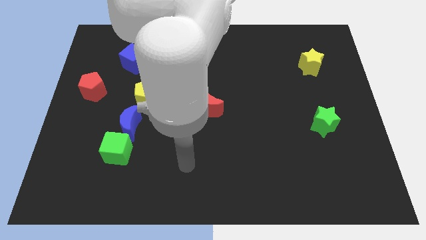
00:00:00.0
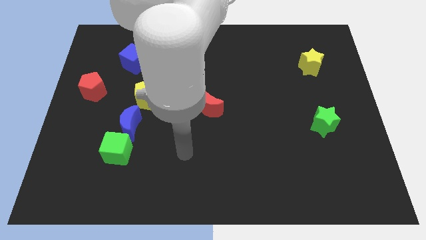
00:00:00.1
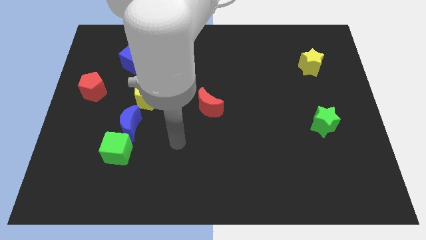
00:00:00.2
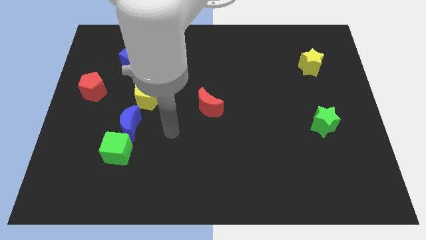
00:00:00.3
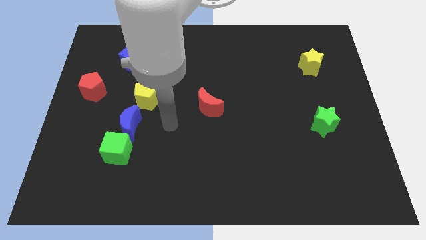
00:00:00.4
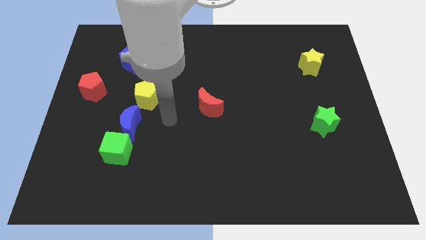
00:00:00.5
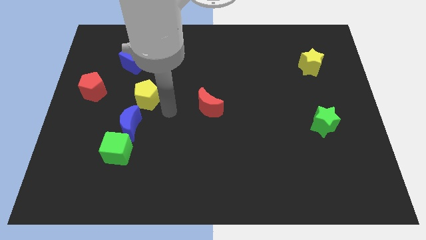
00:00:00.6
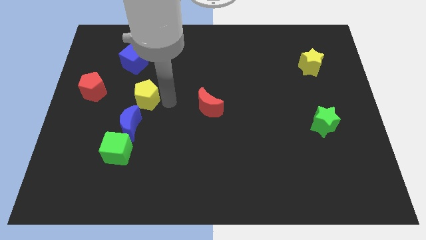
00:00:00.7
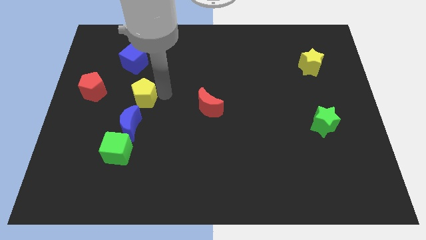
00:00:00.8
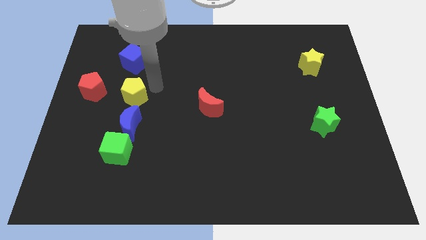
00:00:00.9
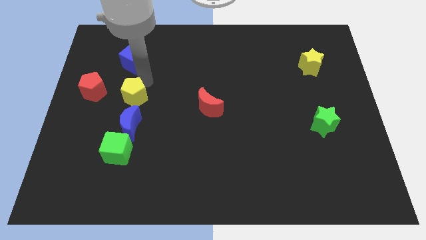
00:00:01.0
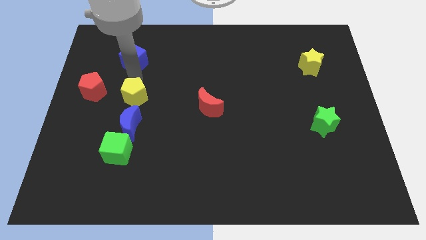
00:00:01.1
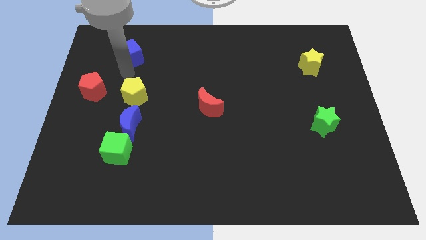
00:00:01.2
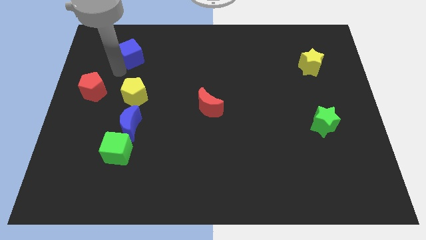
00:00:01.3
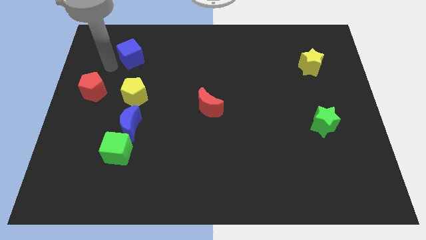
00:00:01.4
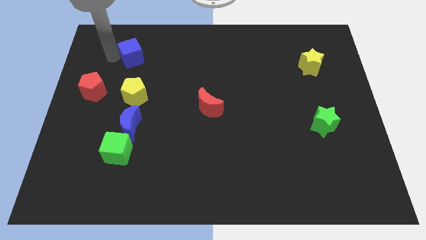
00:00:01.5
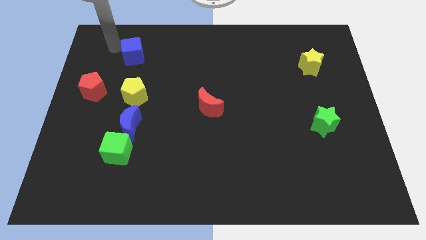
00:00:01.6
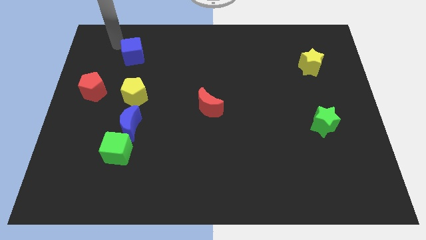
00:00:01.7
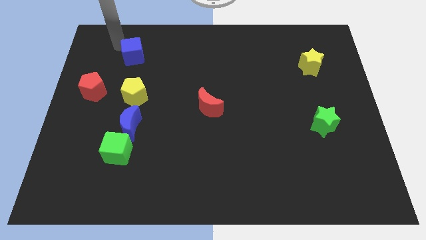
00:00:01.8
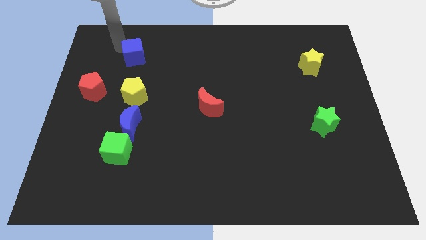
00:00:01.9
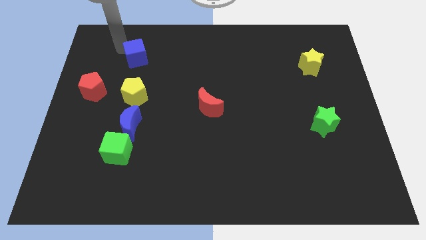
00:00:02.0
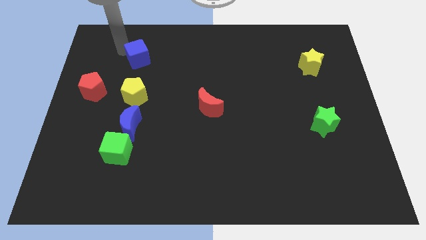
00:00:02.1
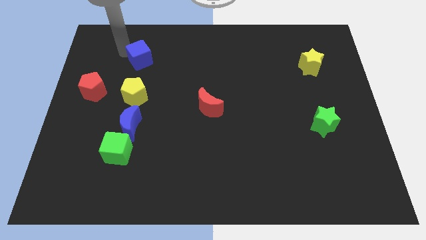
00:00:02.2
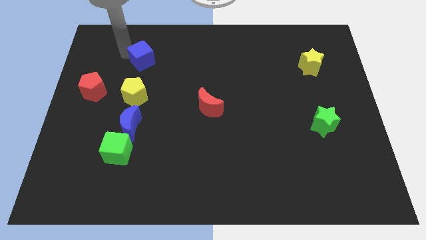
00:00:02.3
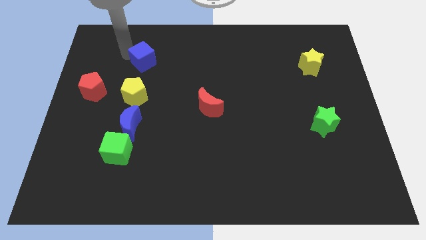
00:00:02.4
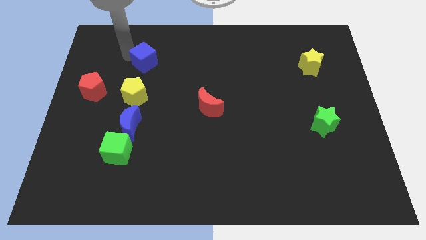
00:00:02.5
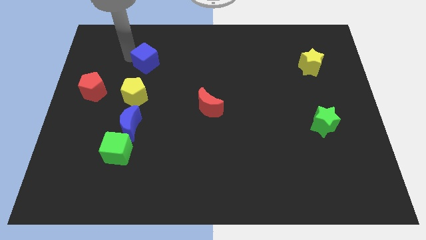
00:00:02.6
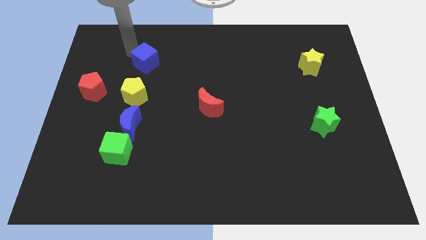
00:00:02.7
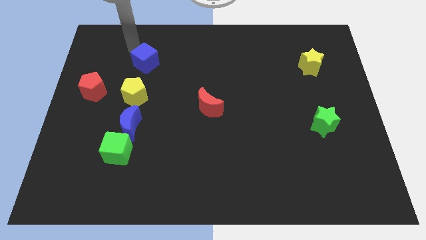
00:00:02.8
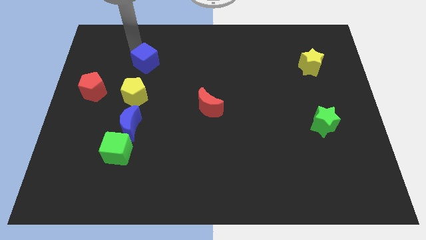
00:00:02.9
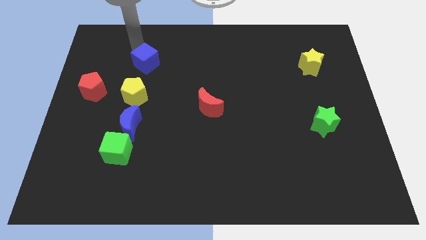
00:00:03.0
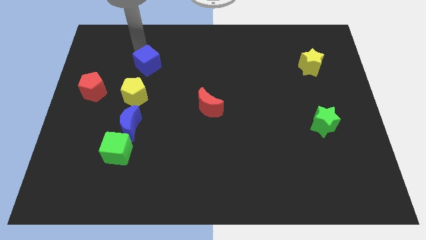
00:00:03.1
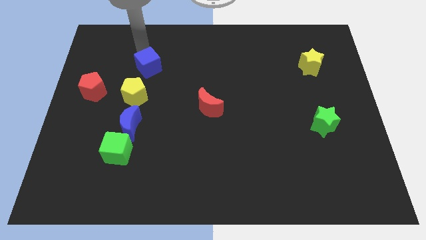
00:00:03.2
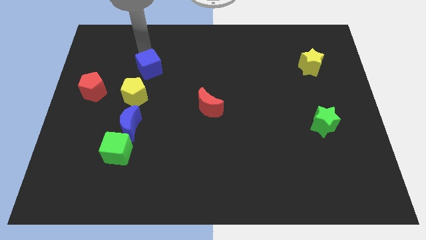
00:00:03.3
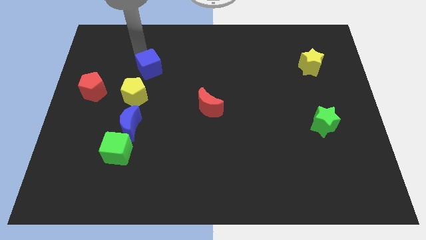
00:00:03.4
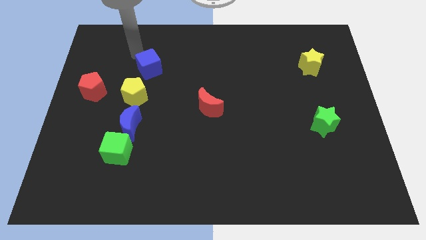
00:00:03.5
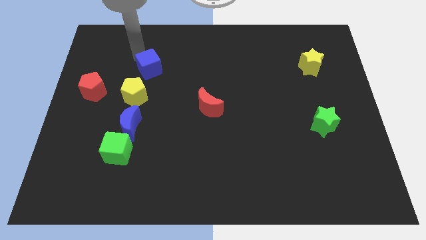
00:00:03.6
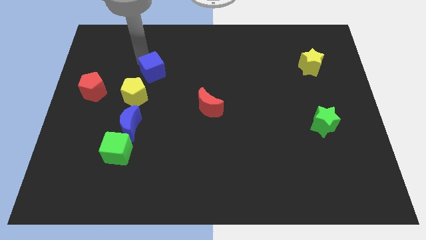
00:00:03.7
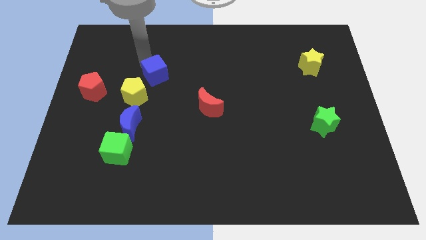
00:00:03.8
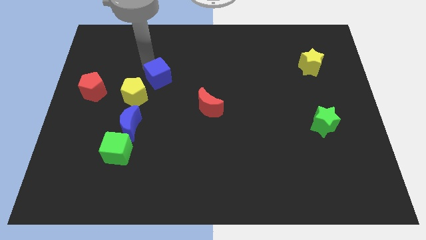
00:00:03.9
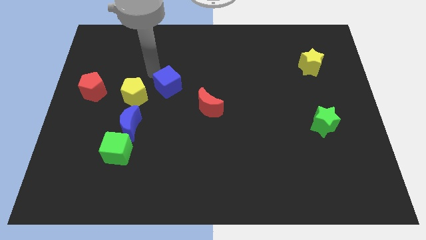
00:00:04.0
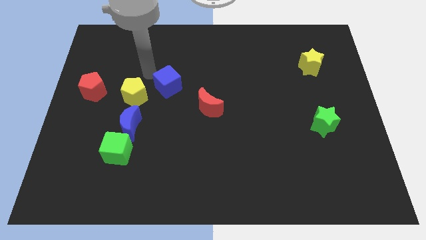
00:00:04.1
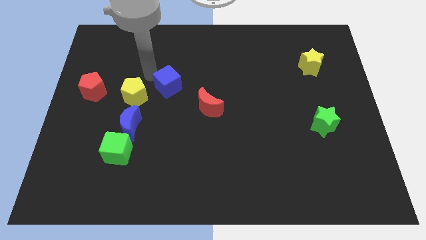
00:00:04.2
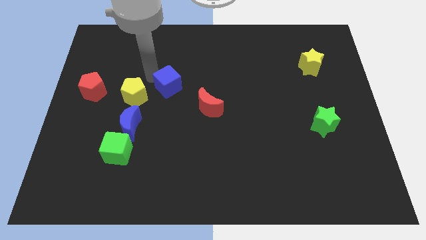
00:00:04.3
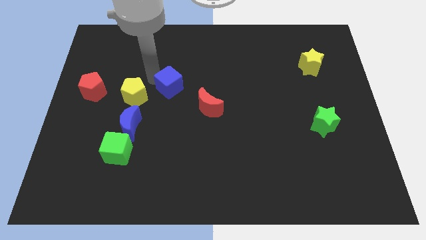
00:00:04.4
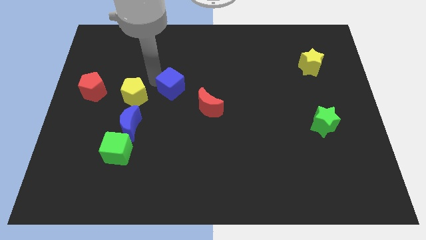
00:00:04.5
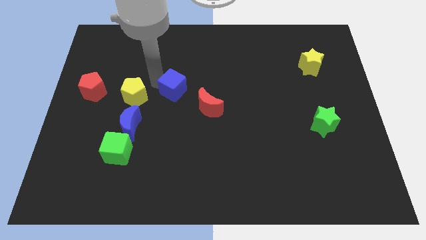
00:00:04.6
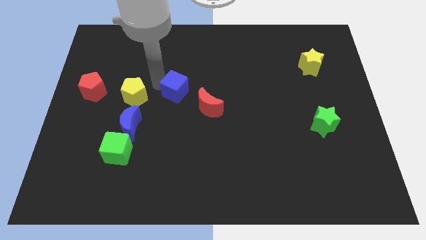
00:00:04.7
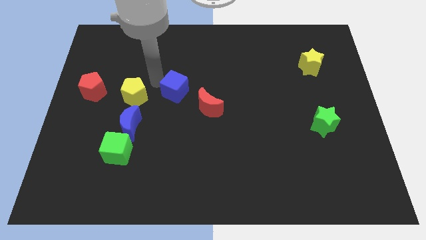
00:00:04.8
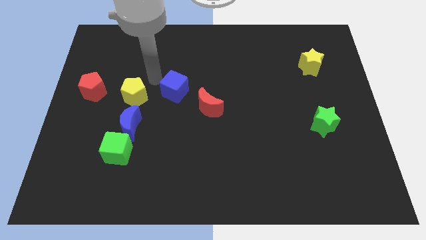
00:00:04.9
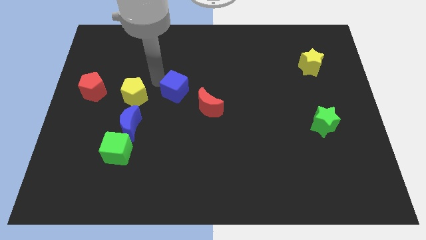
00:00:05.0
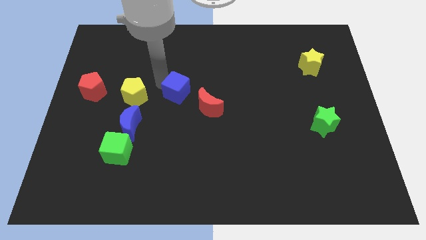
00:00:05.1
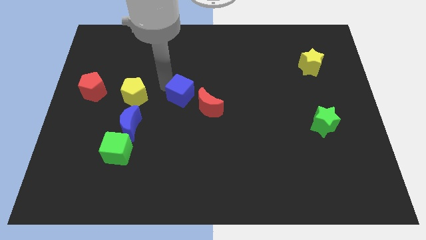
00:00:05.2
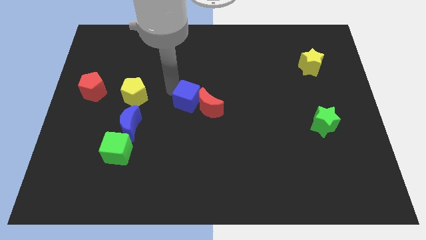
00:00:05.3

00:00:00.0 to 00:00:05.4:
slide the blue cube close to the red moon

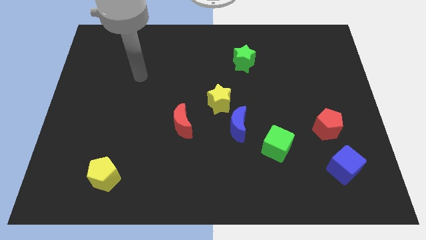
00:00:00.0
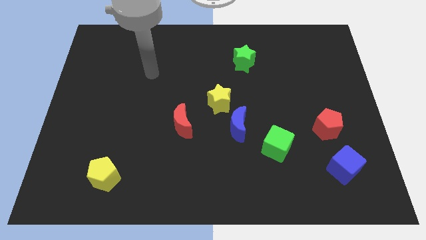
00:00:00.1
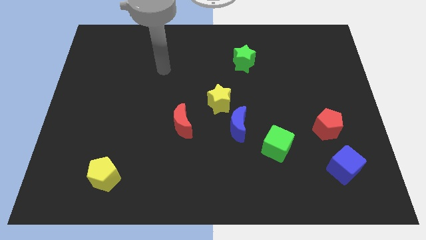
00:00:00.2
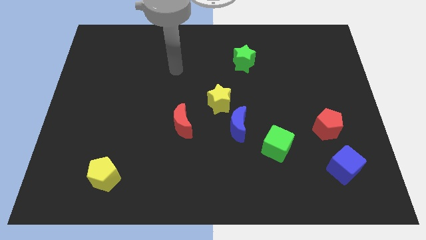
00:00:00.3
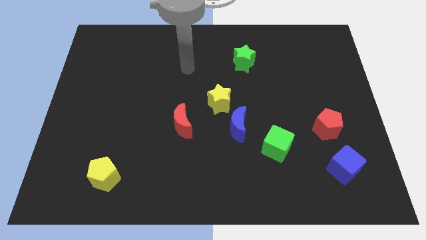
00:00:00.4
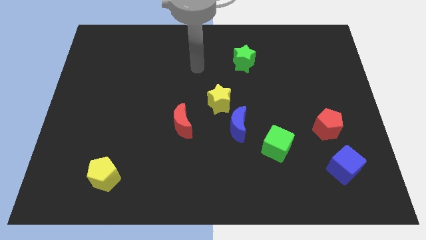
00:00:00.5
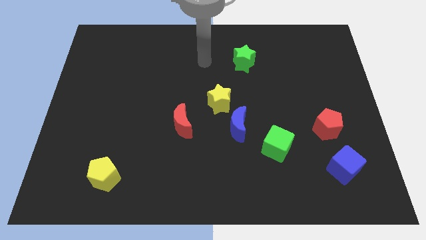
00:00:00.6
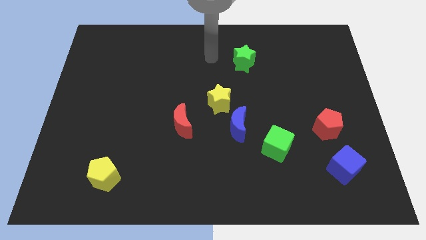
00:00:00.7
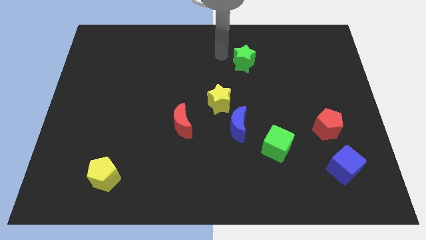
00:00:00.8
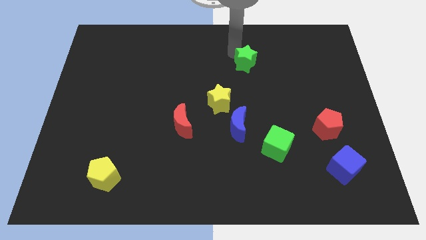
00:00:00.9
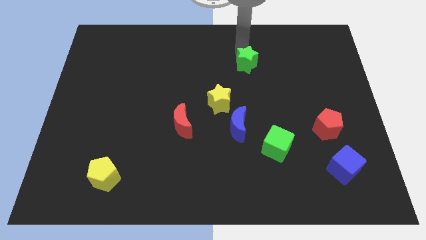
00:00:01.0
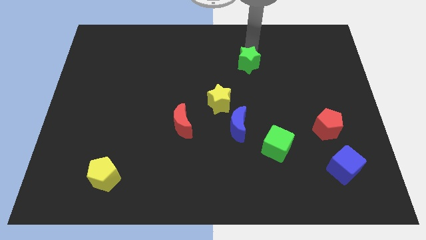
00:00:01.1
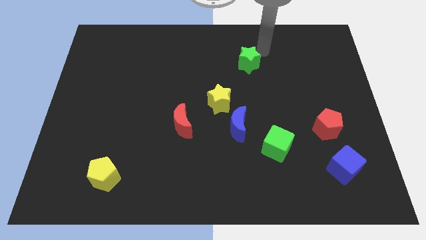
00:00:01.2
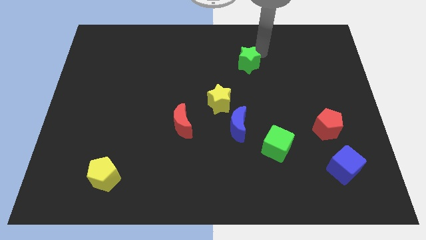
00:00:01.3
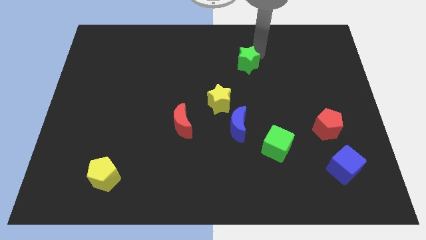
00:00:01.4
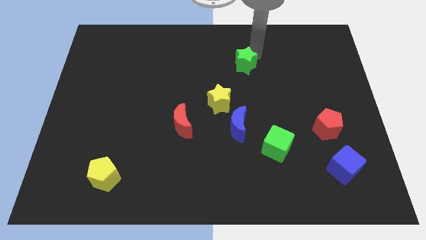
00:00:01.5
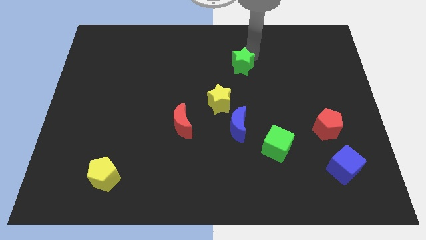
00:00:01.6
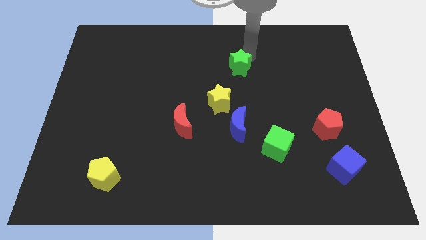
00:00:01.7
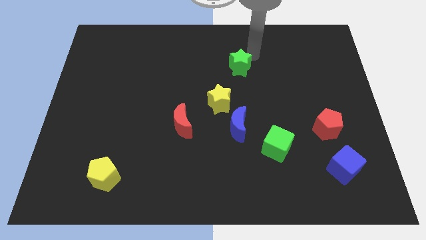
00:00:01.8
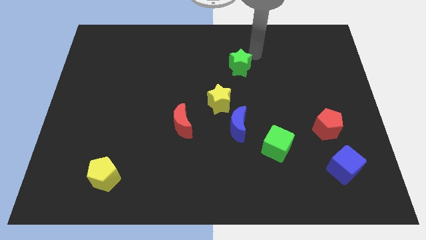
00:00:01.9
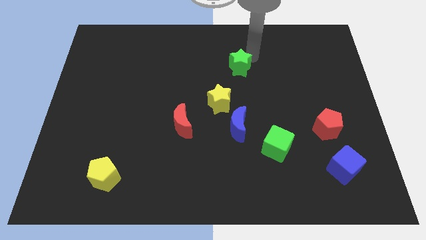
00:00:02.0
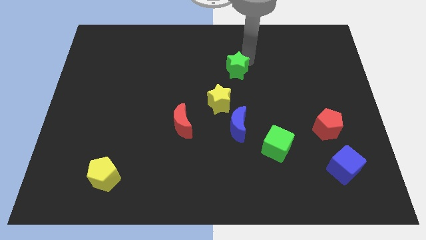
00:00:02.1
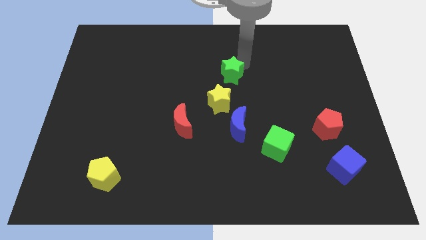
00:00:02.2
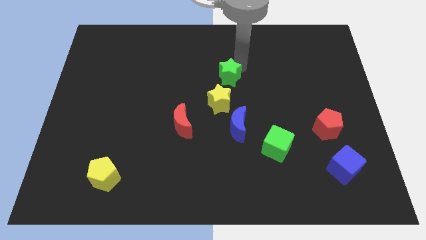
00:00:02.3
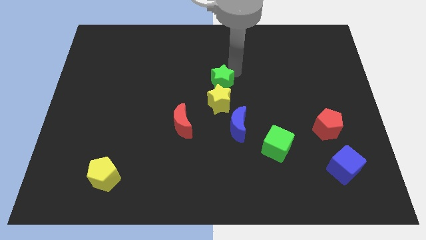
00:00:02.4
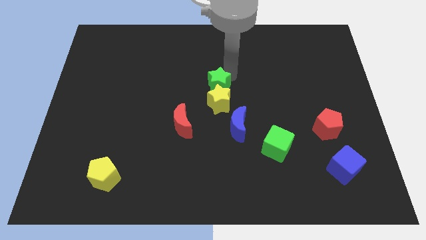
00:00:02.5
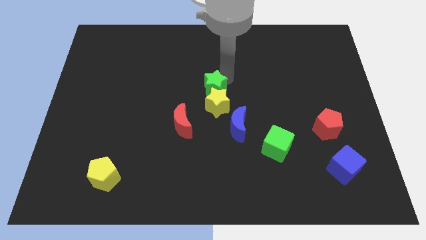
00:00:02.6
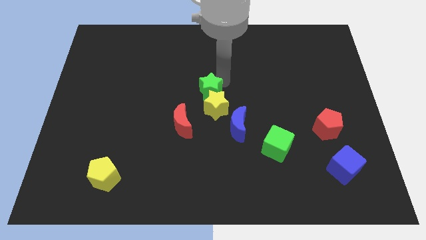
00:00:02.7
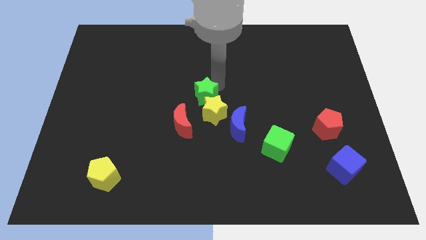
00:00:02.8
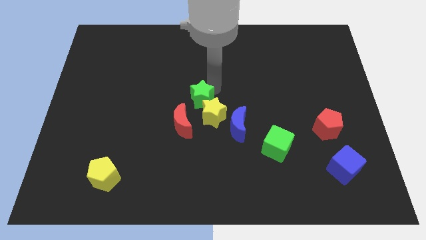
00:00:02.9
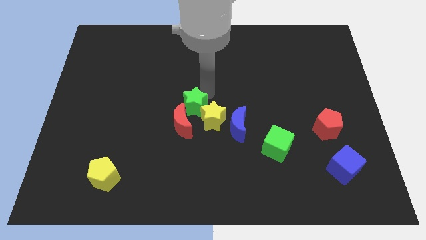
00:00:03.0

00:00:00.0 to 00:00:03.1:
move the green star to the red moon
